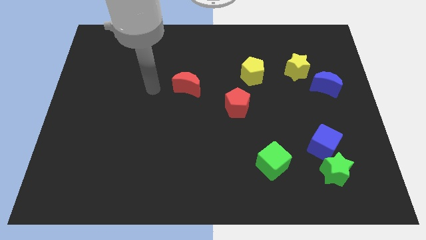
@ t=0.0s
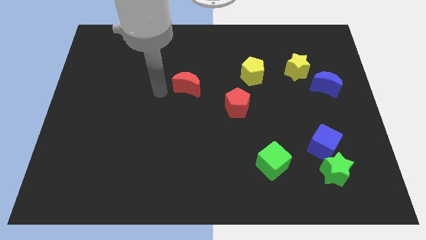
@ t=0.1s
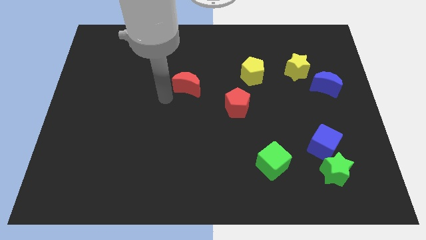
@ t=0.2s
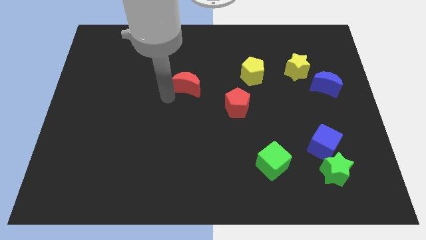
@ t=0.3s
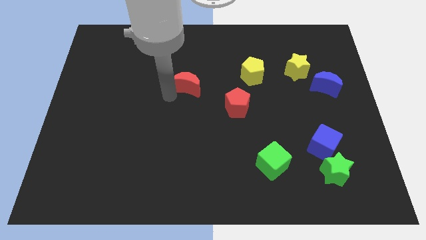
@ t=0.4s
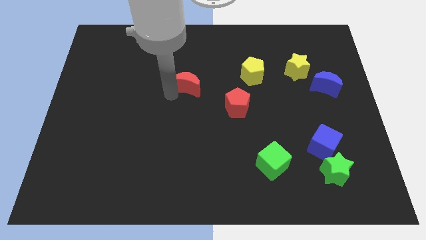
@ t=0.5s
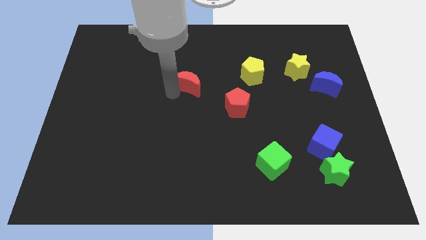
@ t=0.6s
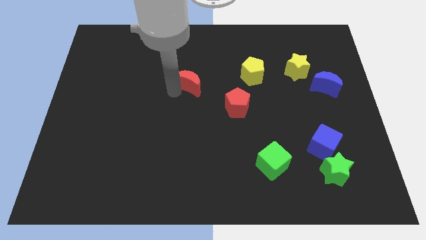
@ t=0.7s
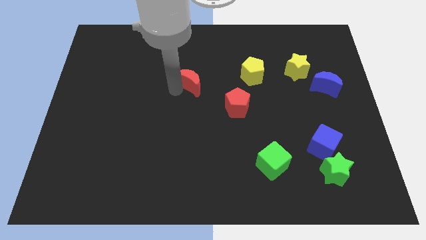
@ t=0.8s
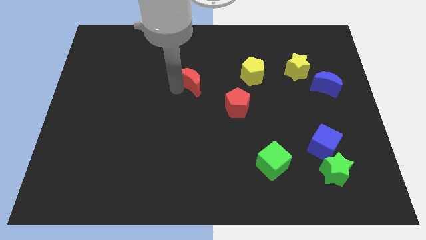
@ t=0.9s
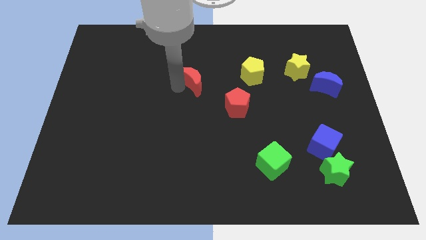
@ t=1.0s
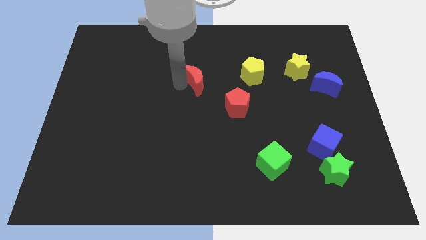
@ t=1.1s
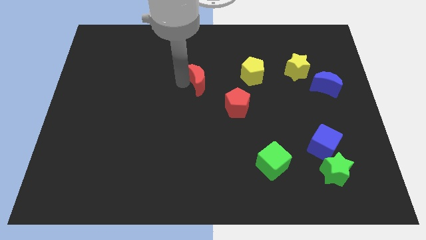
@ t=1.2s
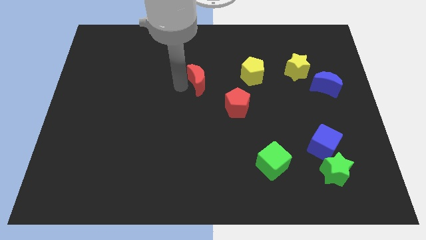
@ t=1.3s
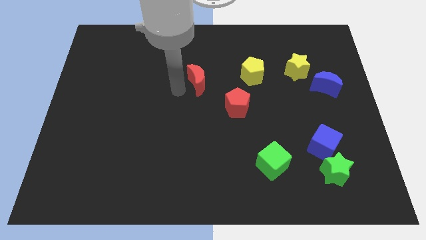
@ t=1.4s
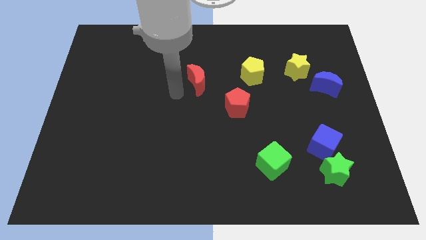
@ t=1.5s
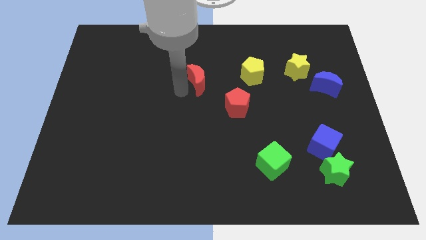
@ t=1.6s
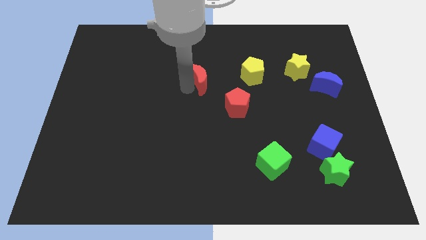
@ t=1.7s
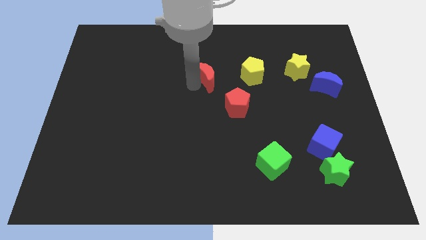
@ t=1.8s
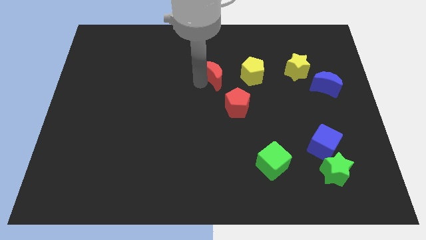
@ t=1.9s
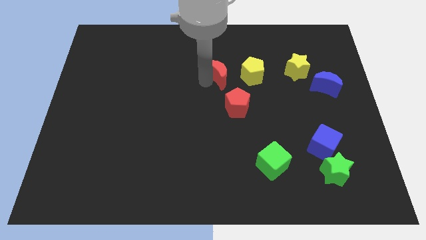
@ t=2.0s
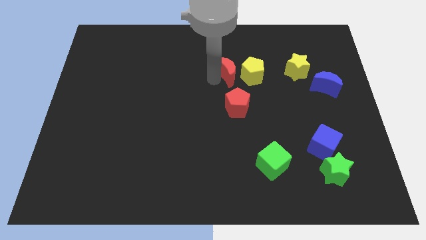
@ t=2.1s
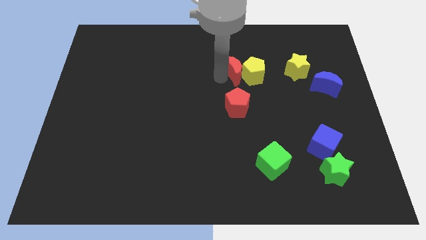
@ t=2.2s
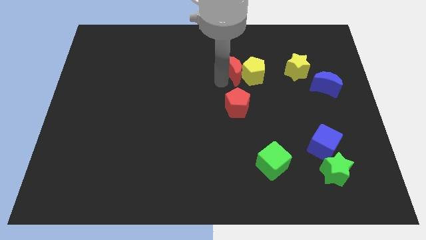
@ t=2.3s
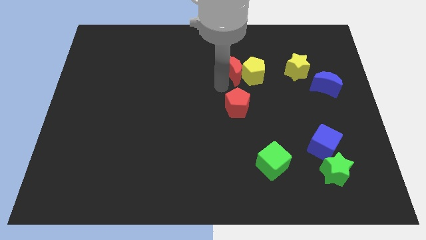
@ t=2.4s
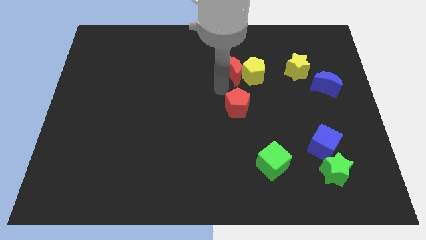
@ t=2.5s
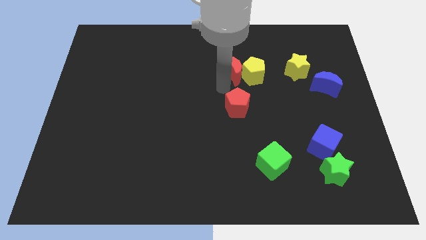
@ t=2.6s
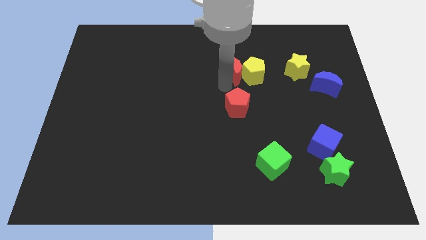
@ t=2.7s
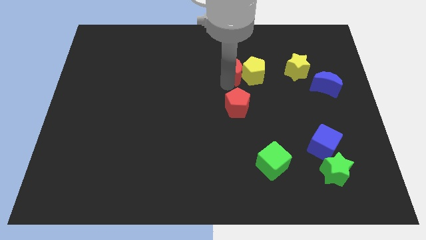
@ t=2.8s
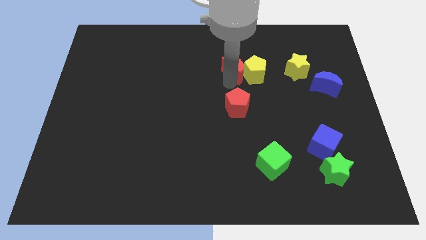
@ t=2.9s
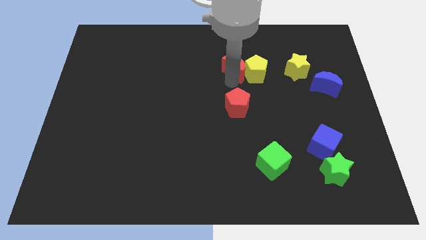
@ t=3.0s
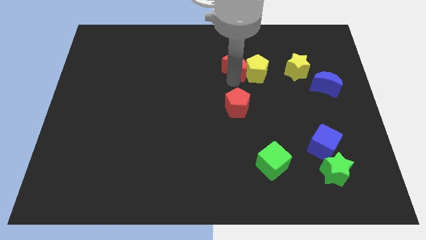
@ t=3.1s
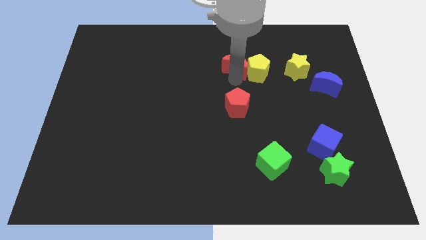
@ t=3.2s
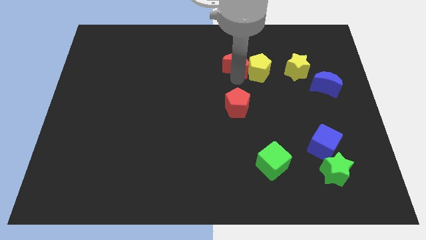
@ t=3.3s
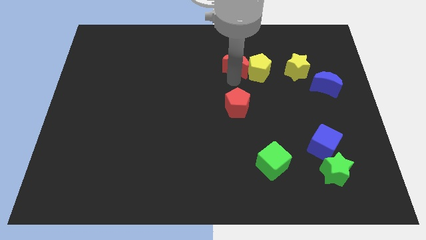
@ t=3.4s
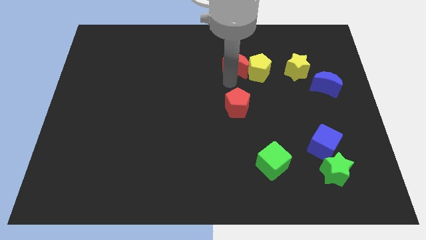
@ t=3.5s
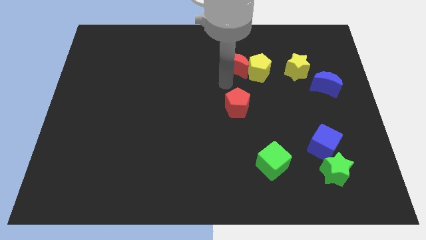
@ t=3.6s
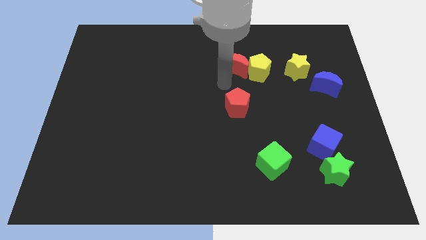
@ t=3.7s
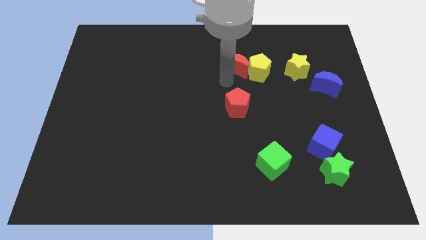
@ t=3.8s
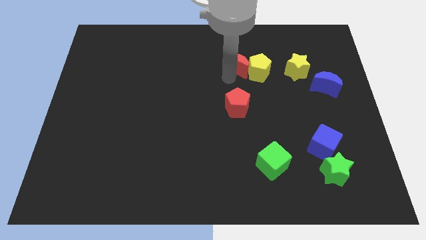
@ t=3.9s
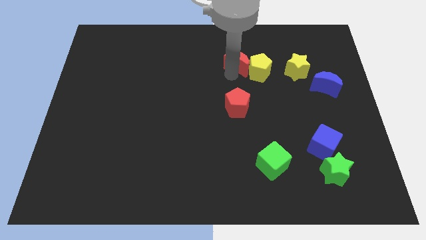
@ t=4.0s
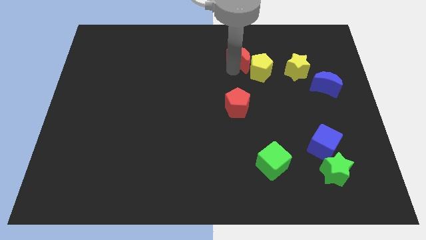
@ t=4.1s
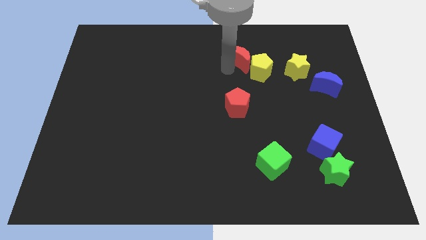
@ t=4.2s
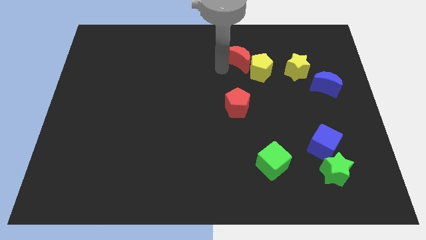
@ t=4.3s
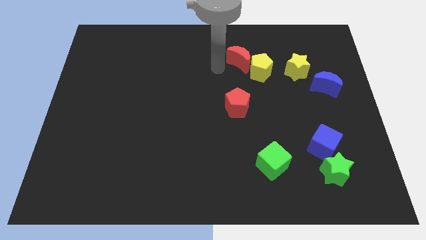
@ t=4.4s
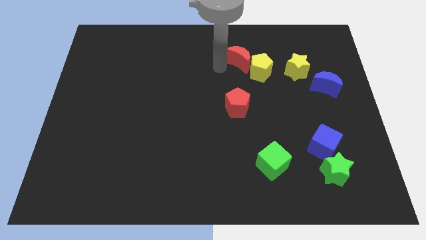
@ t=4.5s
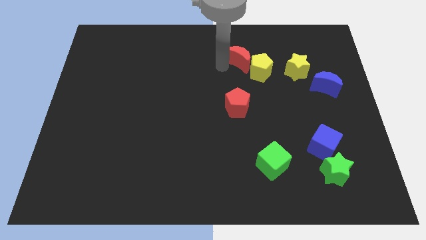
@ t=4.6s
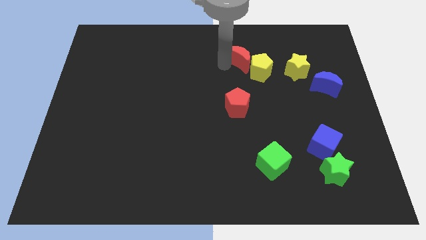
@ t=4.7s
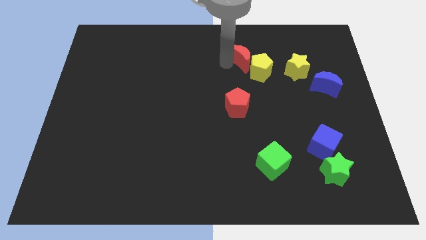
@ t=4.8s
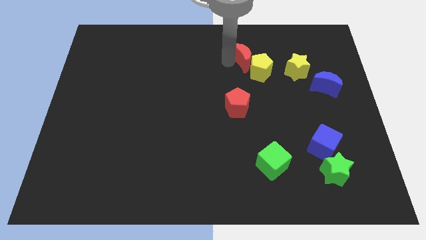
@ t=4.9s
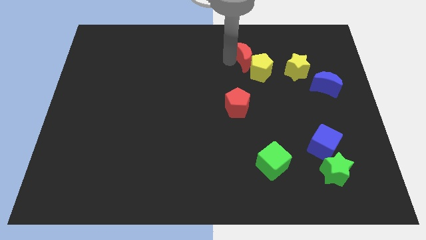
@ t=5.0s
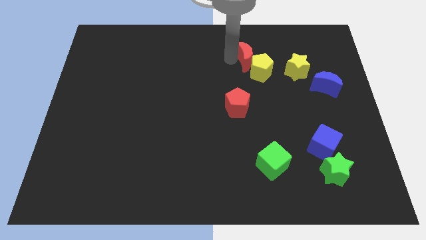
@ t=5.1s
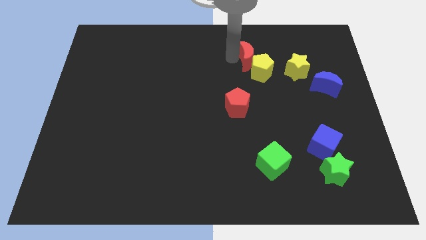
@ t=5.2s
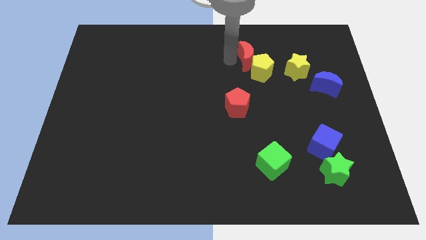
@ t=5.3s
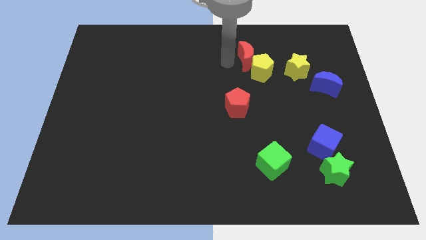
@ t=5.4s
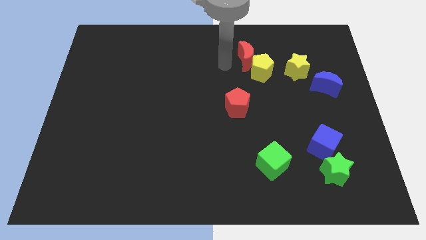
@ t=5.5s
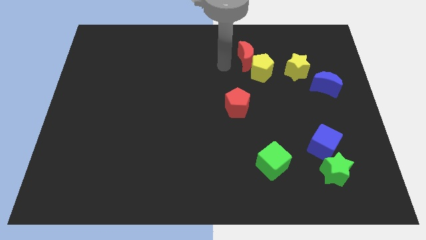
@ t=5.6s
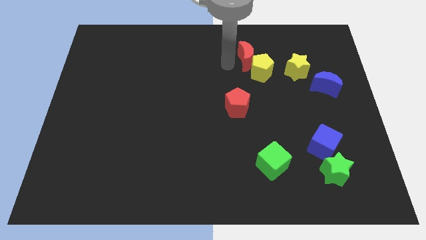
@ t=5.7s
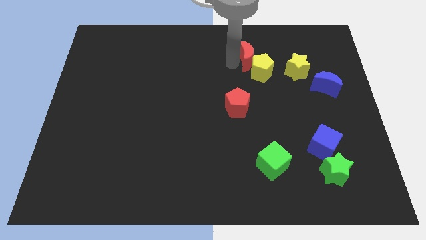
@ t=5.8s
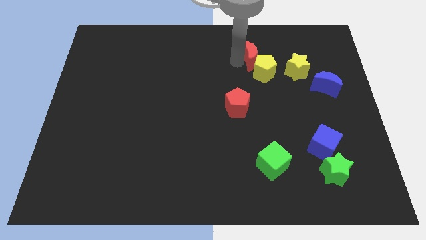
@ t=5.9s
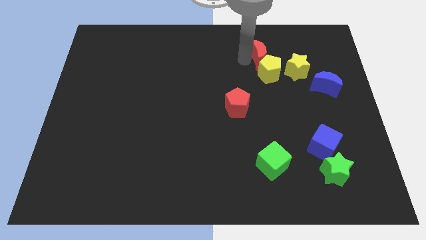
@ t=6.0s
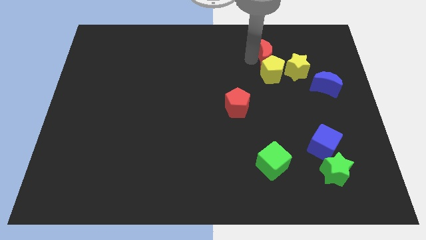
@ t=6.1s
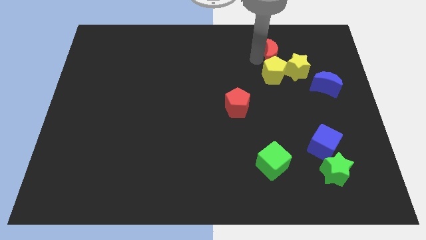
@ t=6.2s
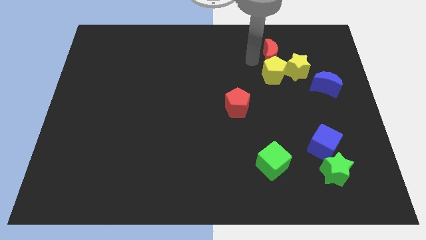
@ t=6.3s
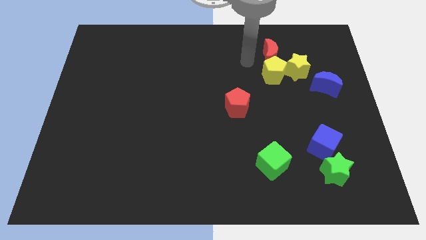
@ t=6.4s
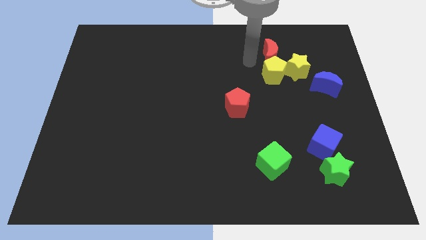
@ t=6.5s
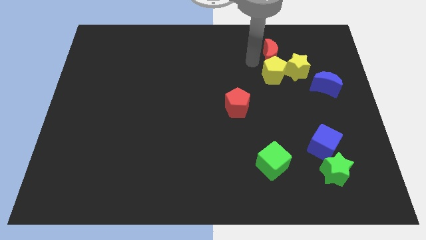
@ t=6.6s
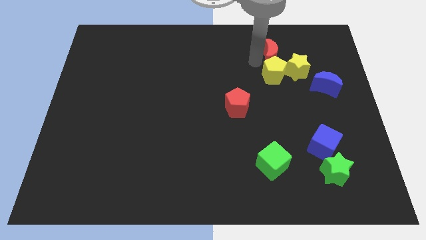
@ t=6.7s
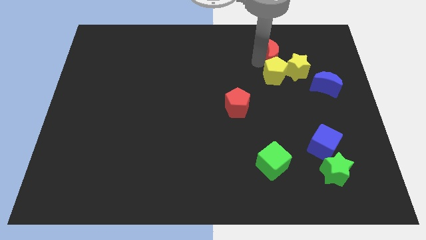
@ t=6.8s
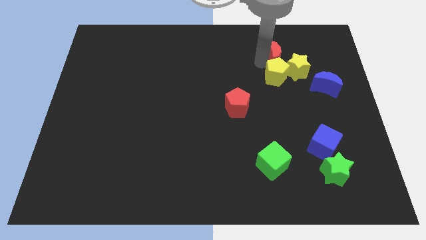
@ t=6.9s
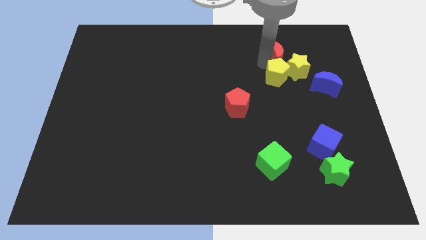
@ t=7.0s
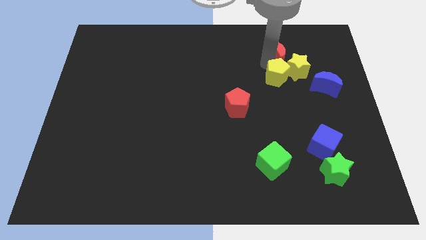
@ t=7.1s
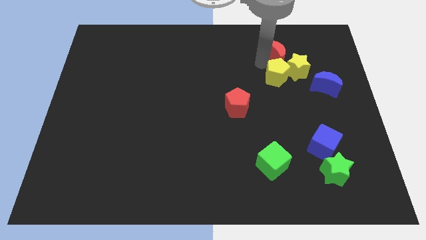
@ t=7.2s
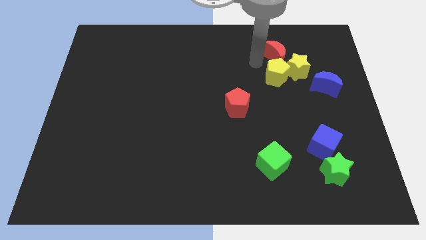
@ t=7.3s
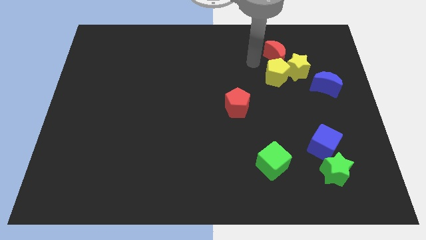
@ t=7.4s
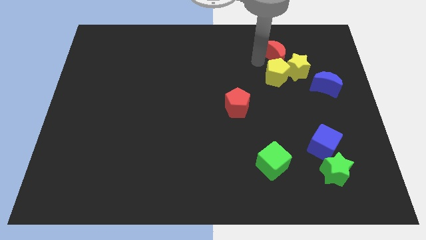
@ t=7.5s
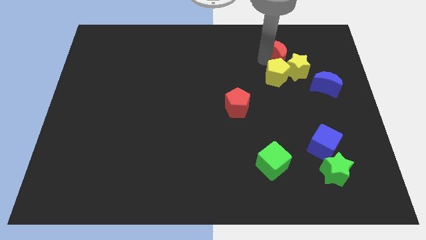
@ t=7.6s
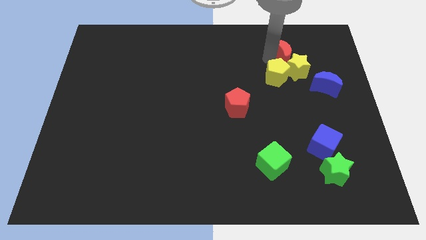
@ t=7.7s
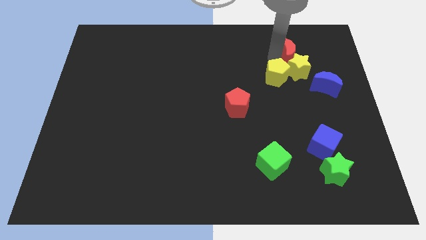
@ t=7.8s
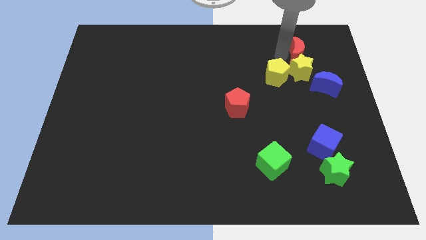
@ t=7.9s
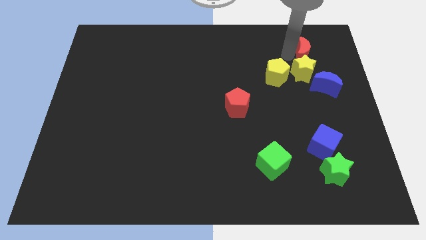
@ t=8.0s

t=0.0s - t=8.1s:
slide the red moon above the blue moon
